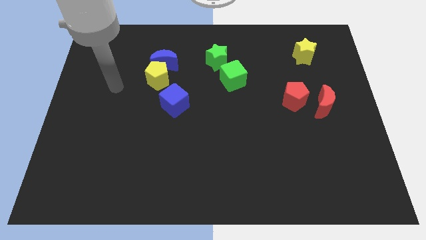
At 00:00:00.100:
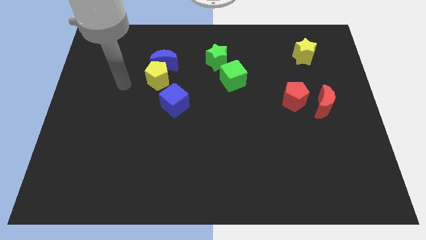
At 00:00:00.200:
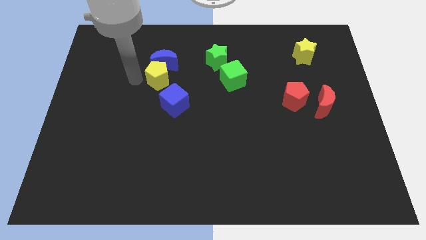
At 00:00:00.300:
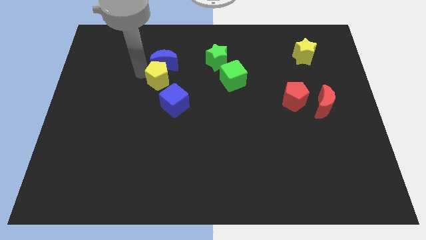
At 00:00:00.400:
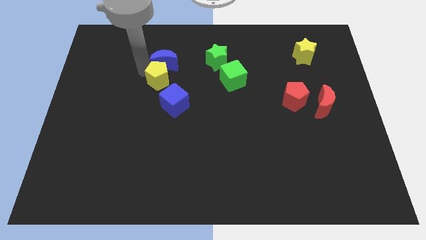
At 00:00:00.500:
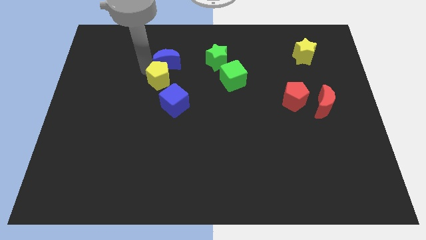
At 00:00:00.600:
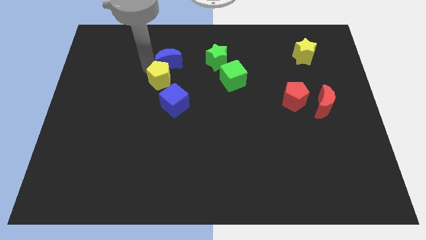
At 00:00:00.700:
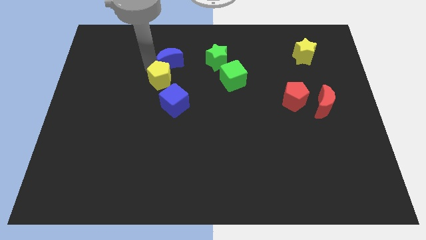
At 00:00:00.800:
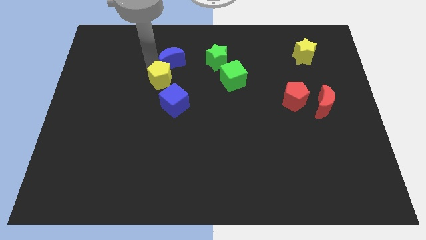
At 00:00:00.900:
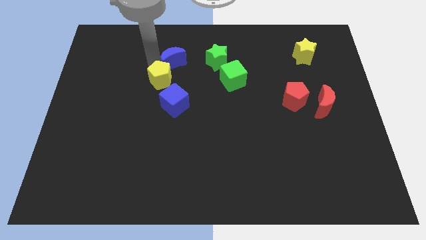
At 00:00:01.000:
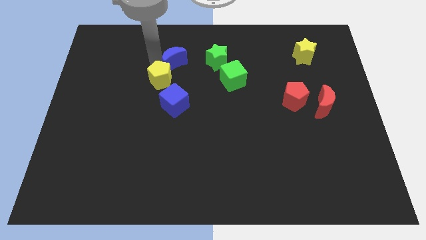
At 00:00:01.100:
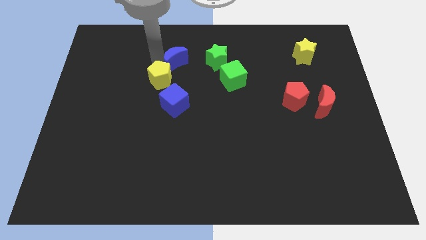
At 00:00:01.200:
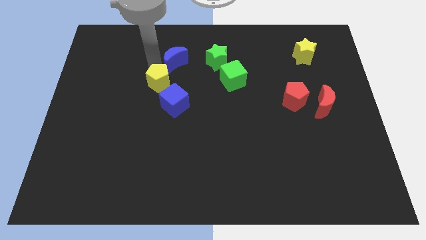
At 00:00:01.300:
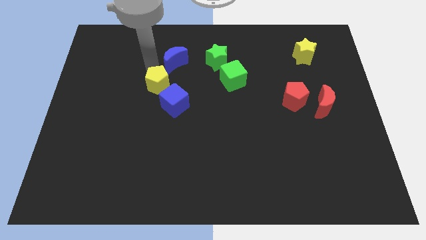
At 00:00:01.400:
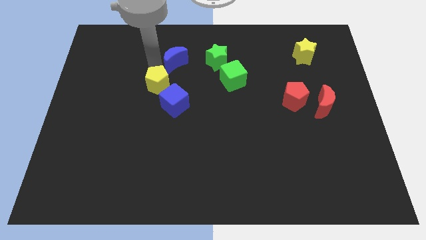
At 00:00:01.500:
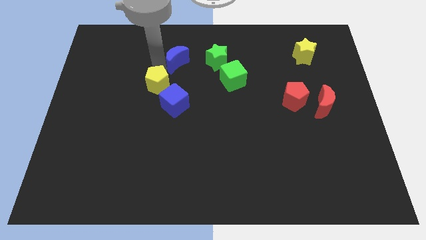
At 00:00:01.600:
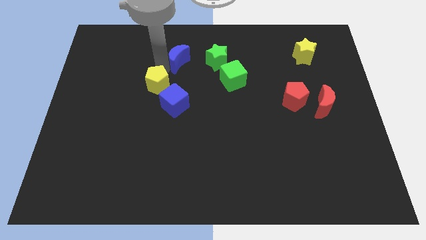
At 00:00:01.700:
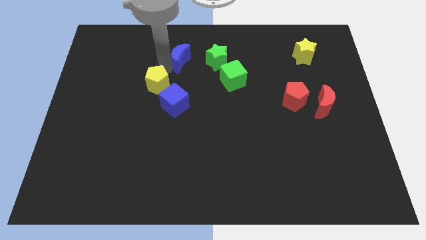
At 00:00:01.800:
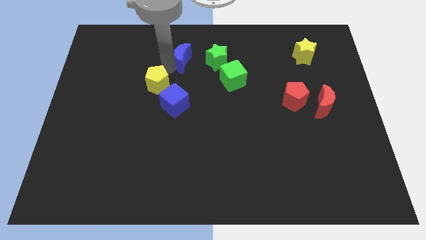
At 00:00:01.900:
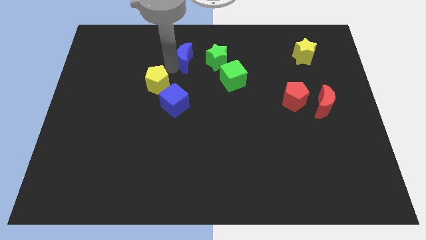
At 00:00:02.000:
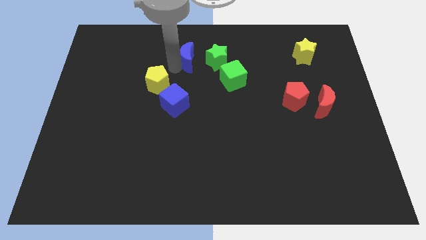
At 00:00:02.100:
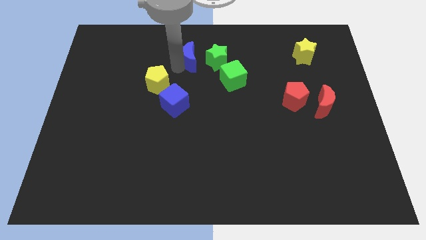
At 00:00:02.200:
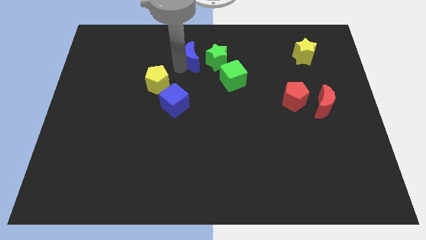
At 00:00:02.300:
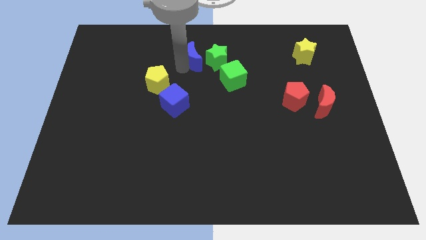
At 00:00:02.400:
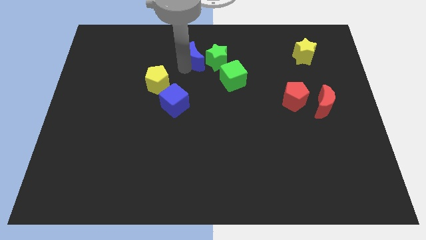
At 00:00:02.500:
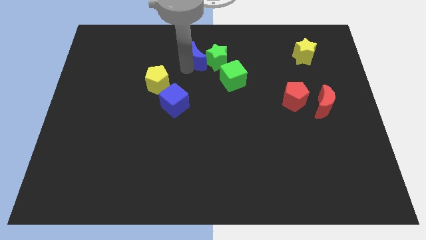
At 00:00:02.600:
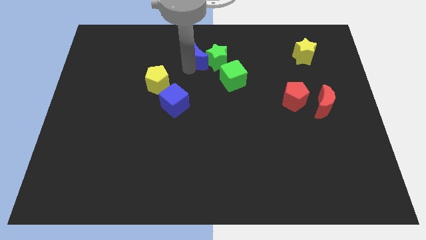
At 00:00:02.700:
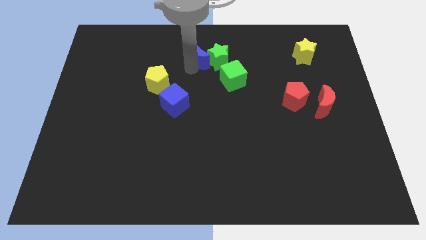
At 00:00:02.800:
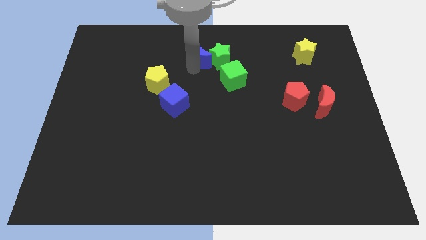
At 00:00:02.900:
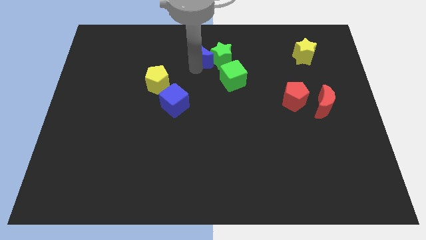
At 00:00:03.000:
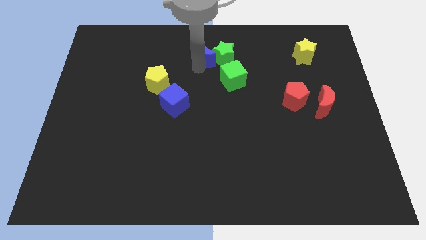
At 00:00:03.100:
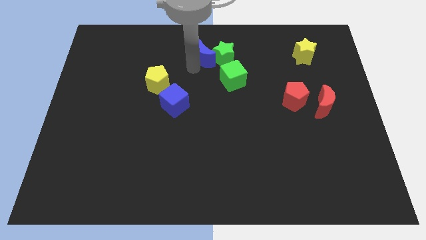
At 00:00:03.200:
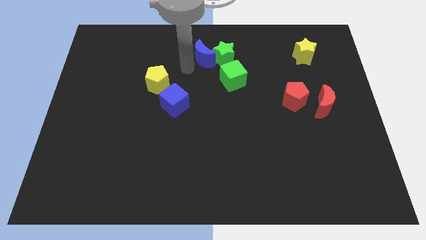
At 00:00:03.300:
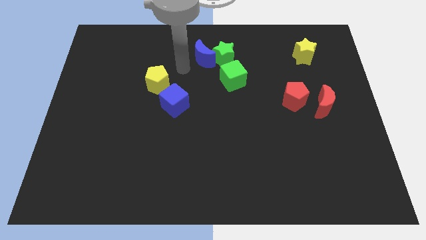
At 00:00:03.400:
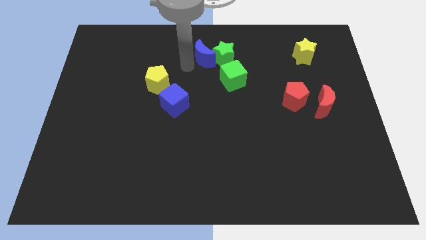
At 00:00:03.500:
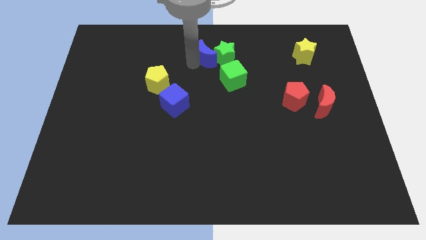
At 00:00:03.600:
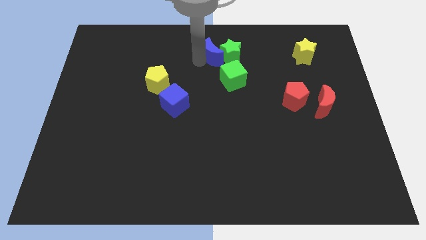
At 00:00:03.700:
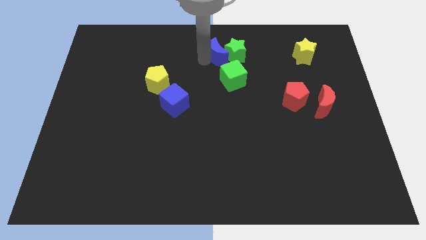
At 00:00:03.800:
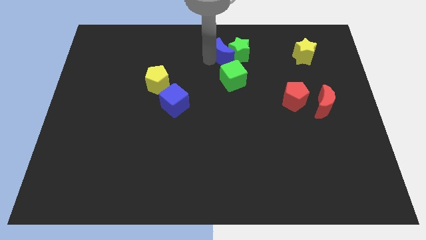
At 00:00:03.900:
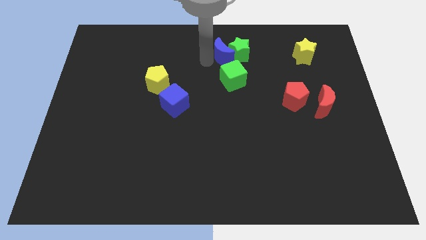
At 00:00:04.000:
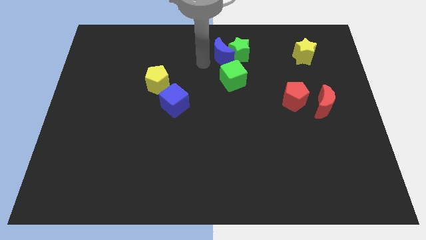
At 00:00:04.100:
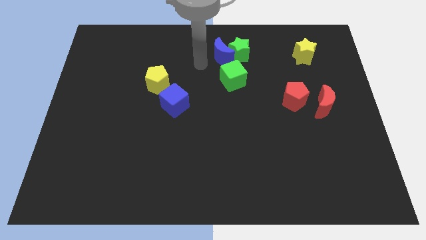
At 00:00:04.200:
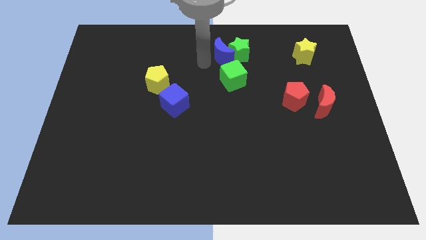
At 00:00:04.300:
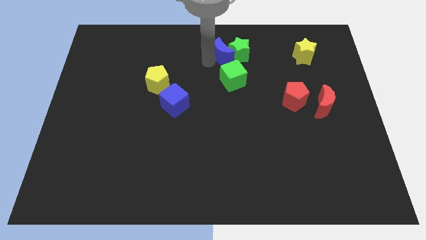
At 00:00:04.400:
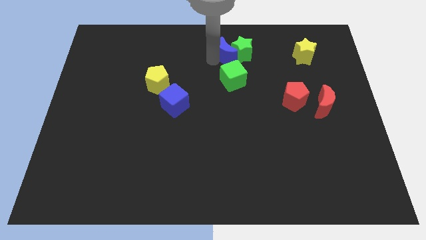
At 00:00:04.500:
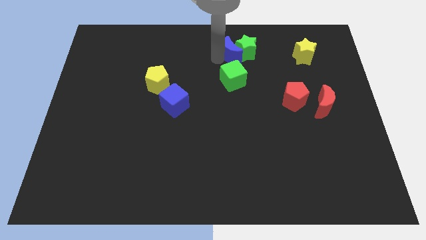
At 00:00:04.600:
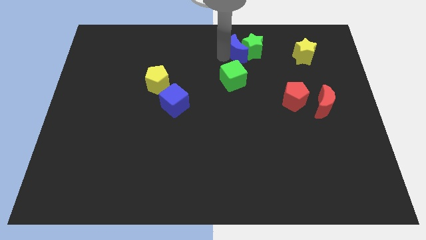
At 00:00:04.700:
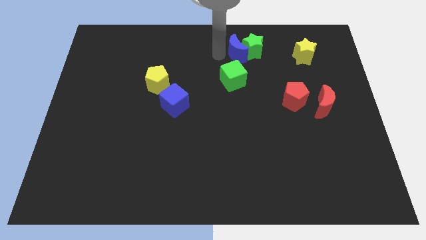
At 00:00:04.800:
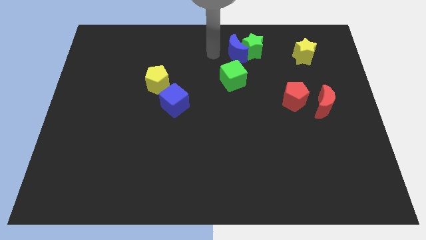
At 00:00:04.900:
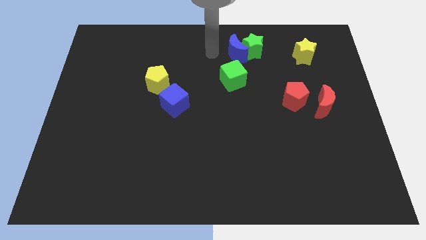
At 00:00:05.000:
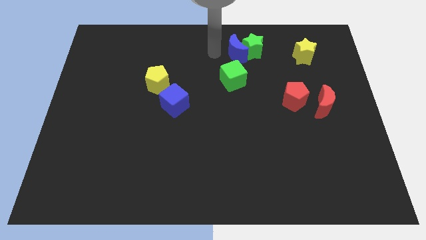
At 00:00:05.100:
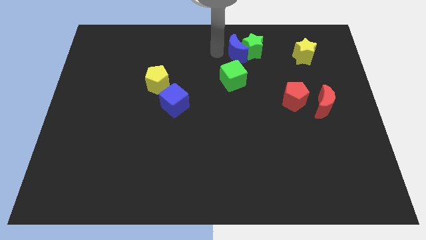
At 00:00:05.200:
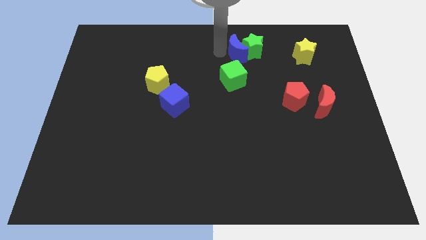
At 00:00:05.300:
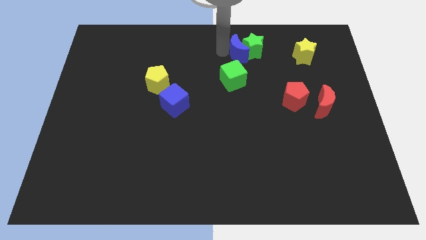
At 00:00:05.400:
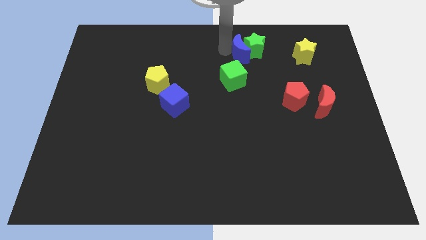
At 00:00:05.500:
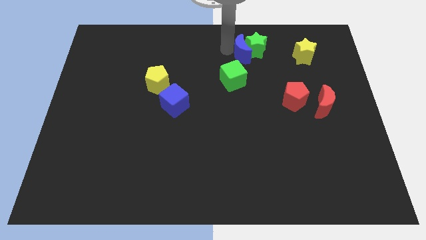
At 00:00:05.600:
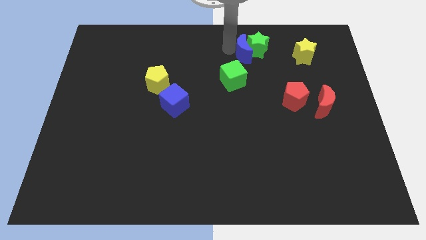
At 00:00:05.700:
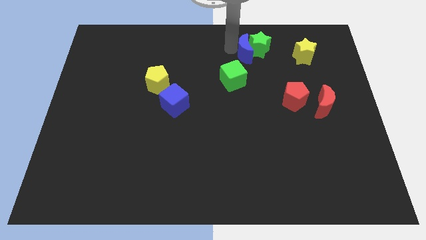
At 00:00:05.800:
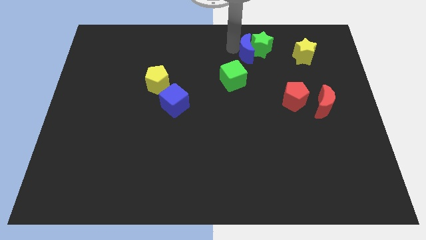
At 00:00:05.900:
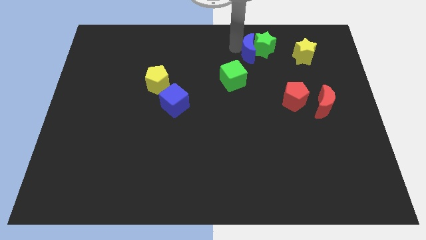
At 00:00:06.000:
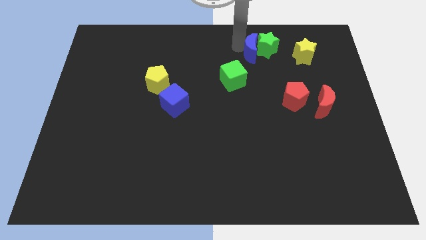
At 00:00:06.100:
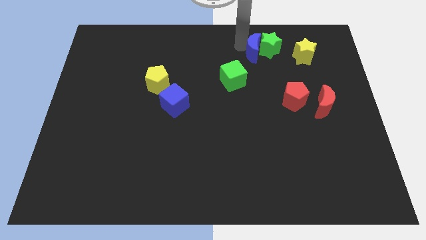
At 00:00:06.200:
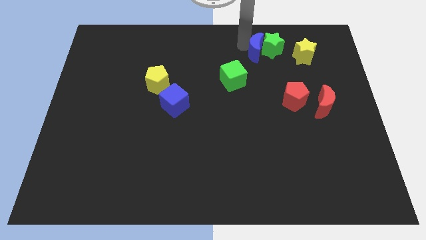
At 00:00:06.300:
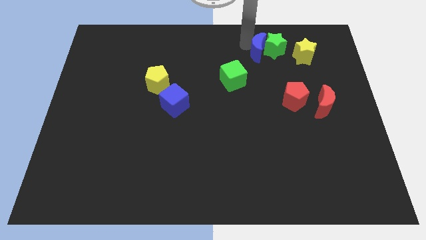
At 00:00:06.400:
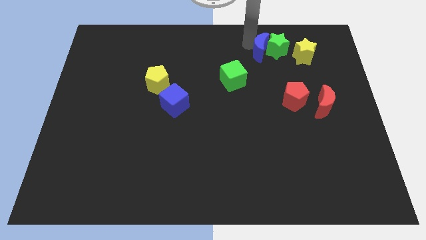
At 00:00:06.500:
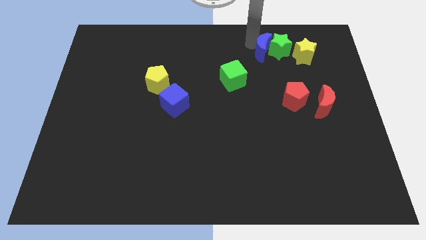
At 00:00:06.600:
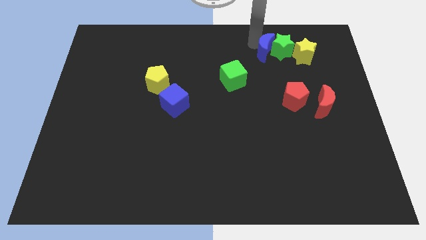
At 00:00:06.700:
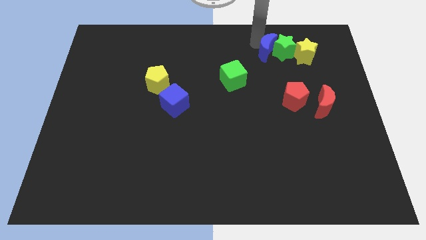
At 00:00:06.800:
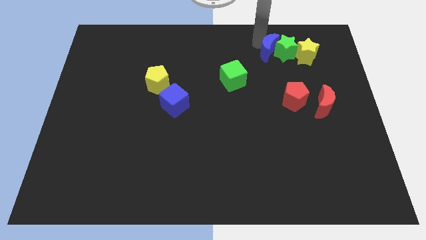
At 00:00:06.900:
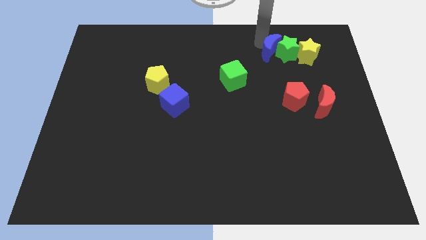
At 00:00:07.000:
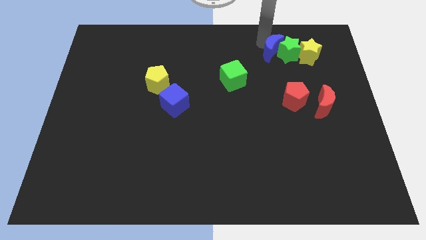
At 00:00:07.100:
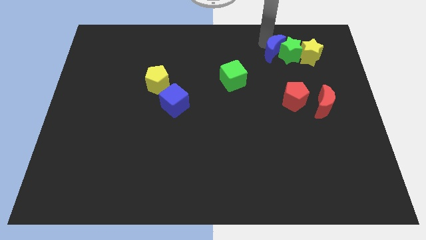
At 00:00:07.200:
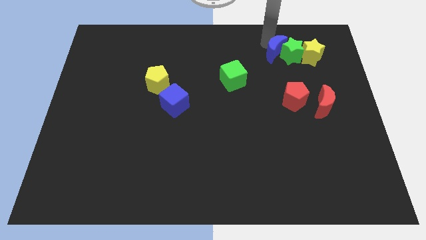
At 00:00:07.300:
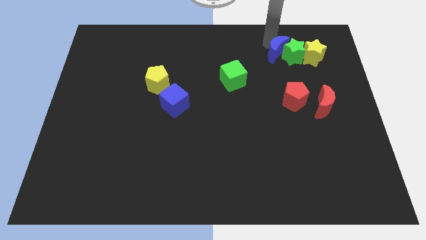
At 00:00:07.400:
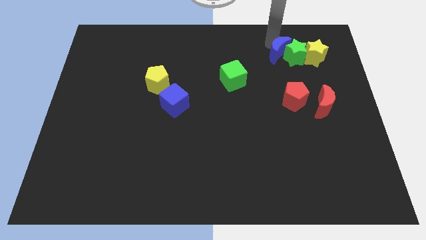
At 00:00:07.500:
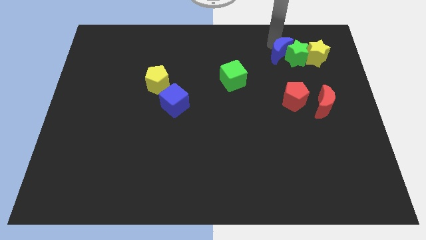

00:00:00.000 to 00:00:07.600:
move the blue moon to the top of the red pentagon
